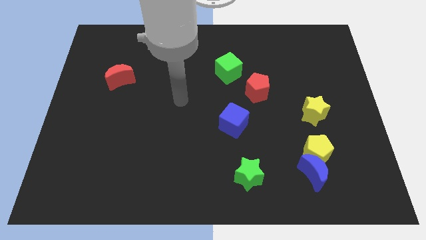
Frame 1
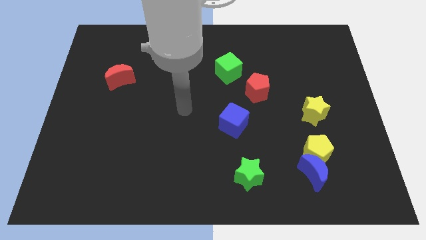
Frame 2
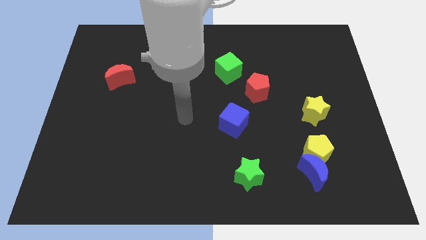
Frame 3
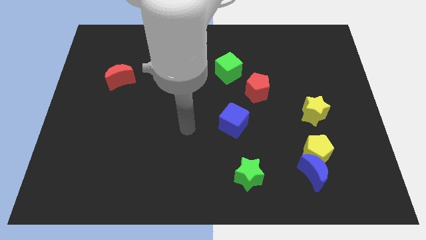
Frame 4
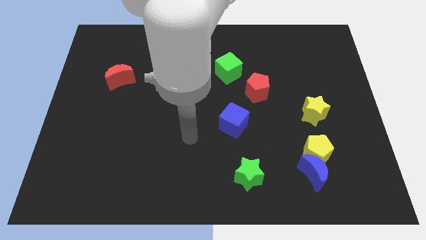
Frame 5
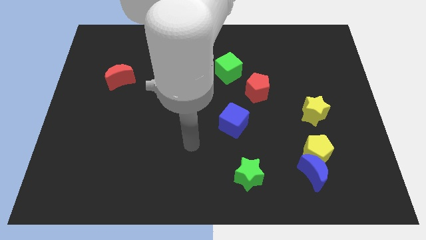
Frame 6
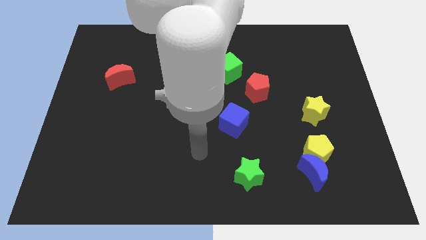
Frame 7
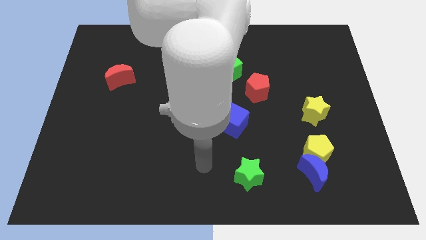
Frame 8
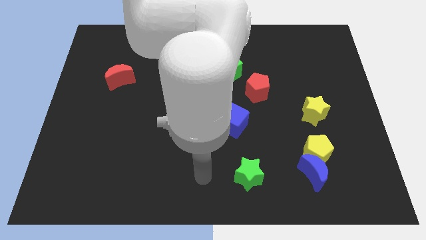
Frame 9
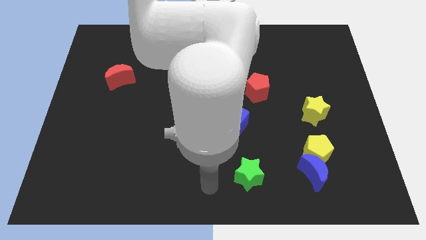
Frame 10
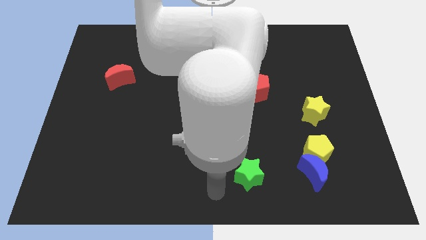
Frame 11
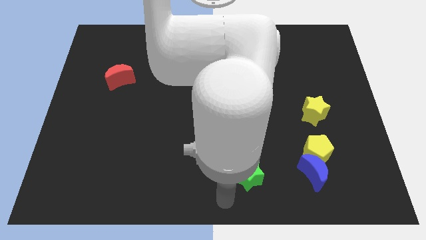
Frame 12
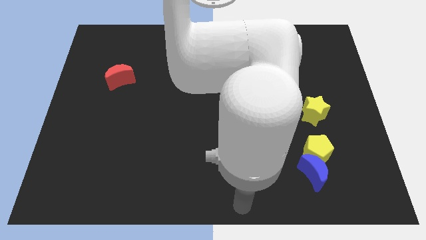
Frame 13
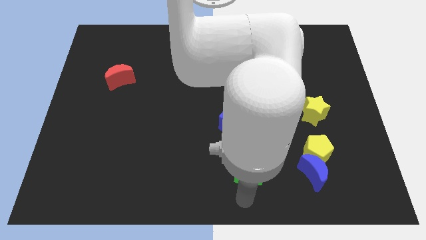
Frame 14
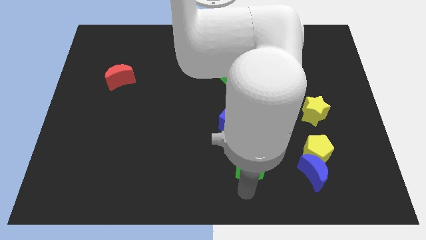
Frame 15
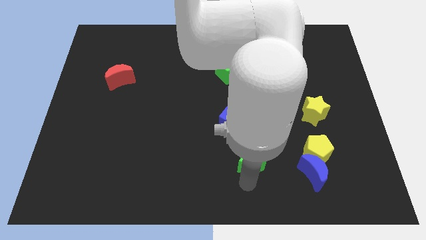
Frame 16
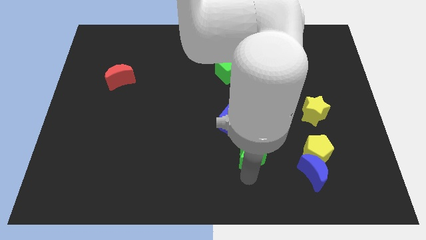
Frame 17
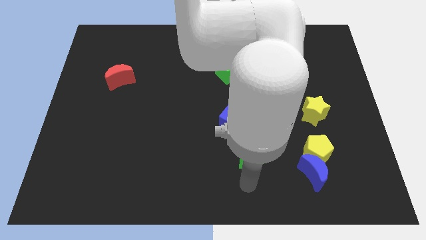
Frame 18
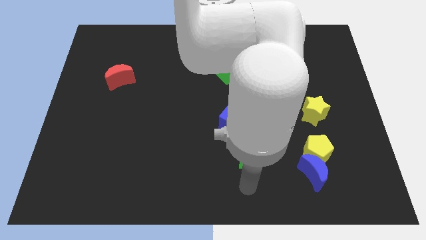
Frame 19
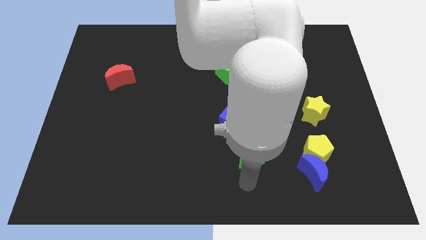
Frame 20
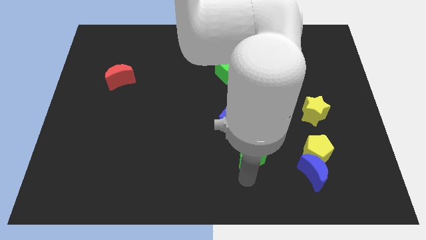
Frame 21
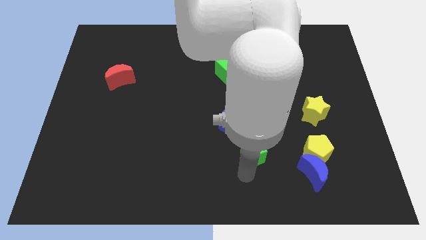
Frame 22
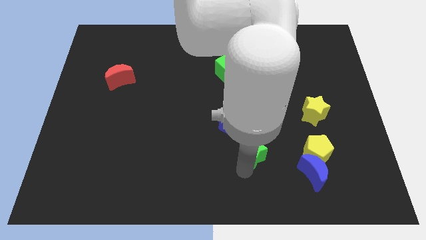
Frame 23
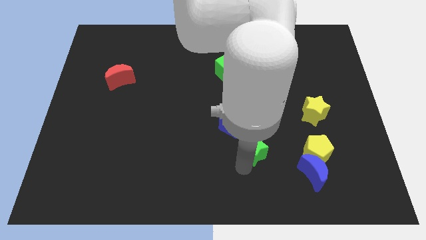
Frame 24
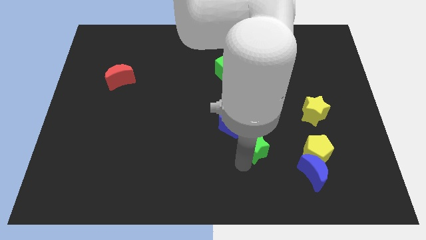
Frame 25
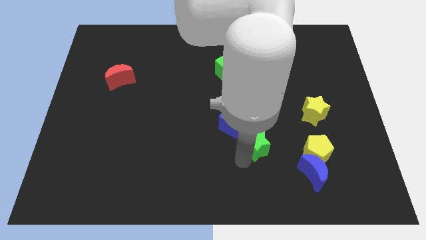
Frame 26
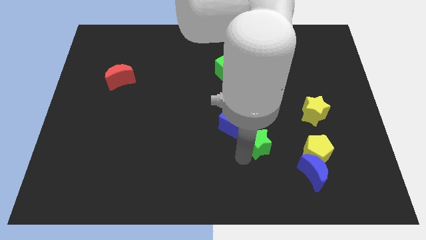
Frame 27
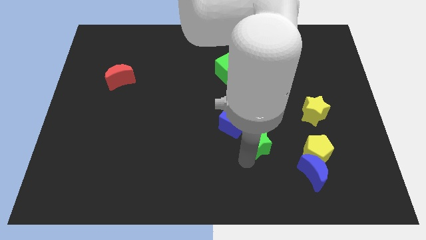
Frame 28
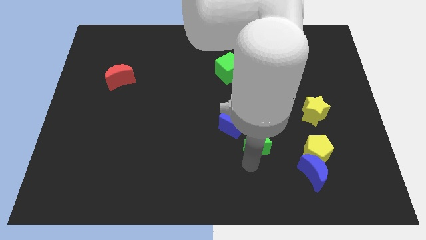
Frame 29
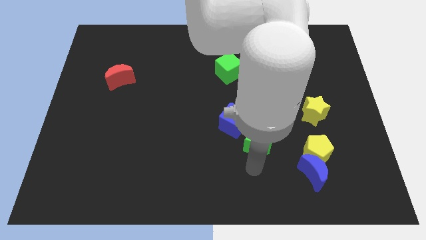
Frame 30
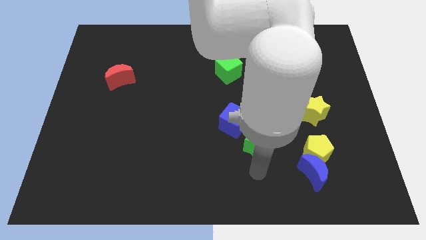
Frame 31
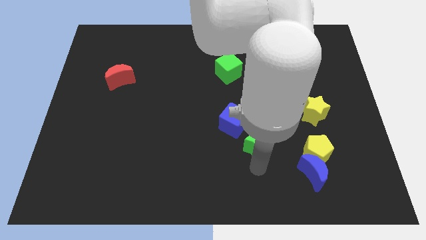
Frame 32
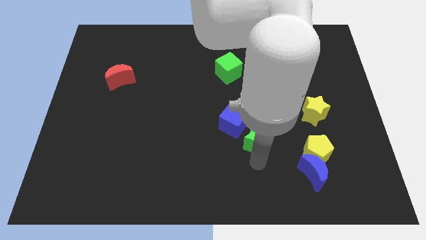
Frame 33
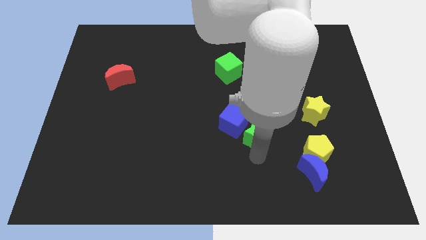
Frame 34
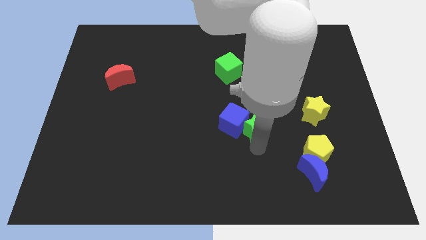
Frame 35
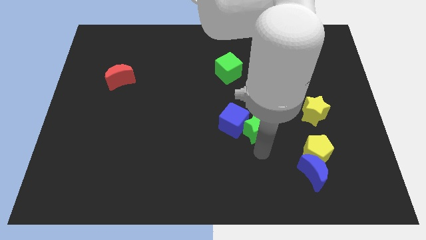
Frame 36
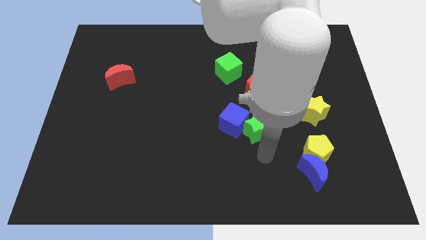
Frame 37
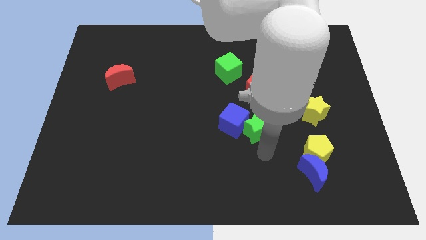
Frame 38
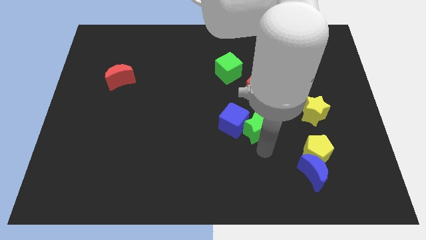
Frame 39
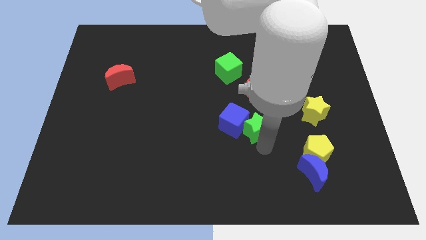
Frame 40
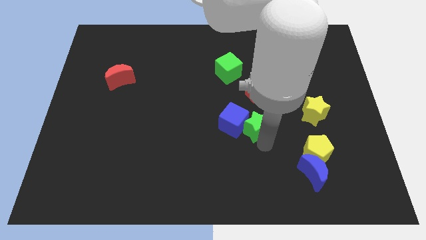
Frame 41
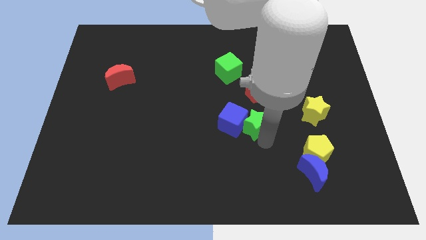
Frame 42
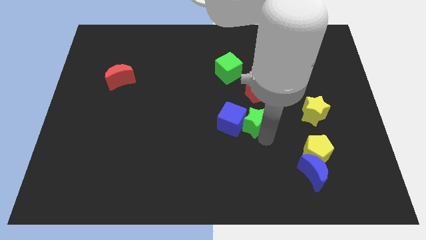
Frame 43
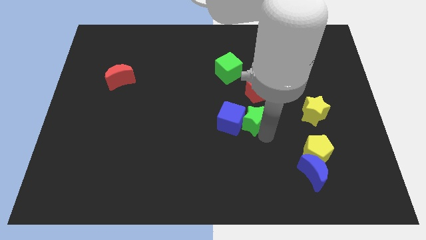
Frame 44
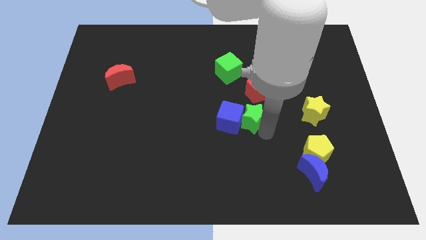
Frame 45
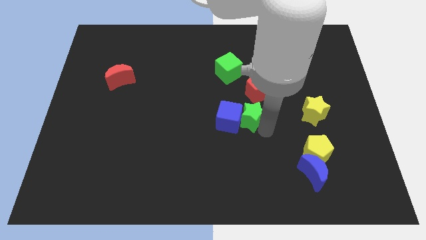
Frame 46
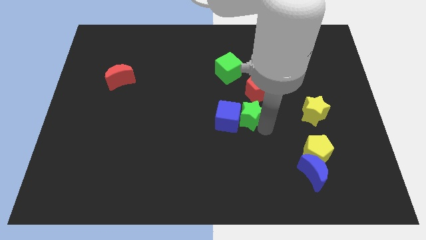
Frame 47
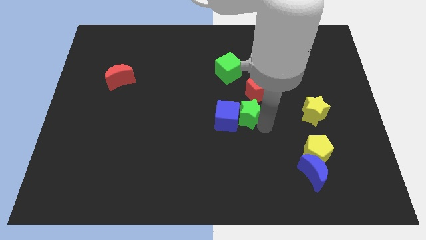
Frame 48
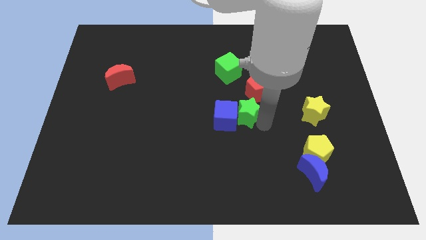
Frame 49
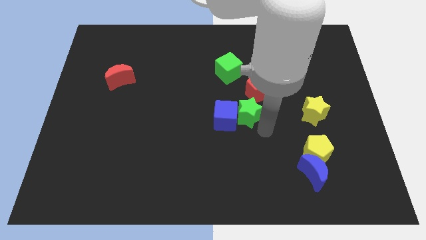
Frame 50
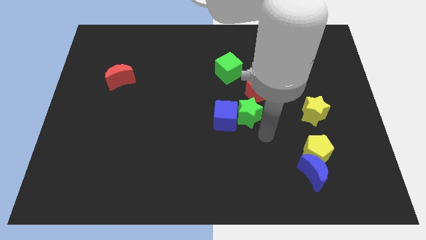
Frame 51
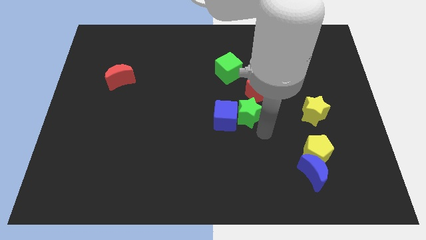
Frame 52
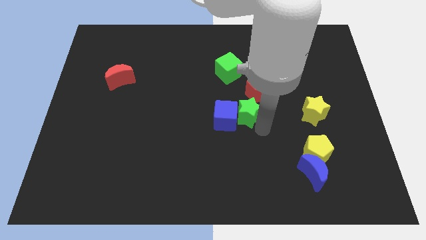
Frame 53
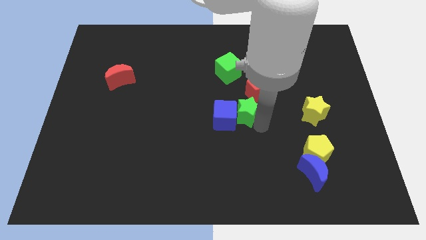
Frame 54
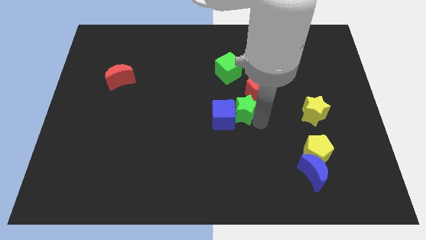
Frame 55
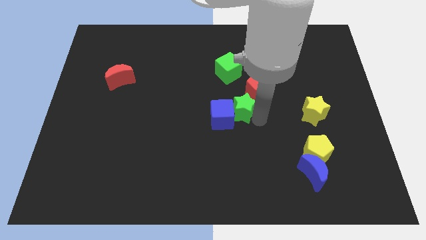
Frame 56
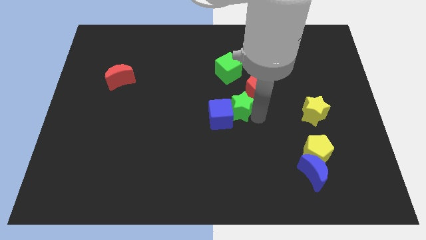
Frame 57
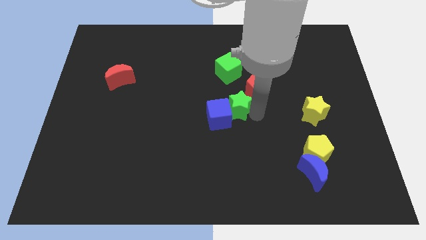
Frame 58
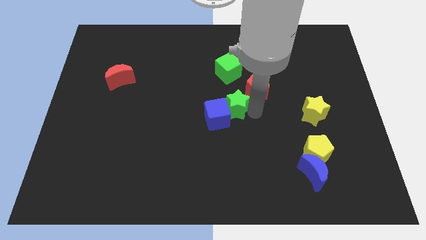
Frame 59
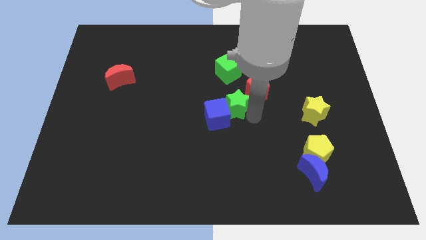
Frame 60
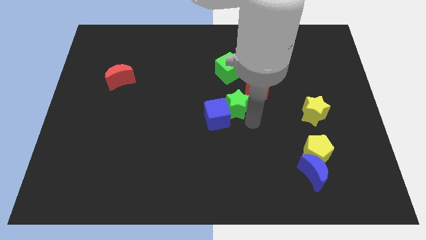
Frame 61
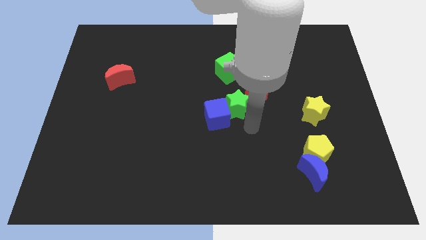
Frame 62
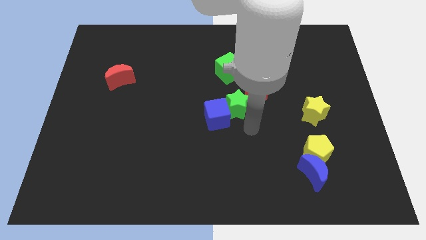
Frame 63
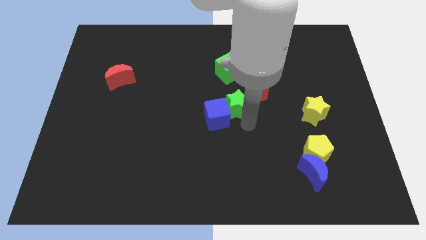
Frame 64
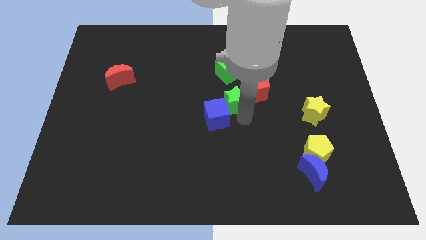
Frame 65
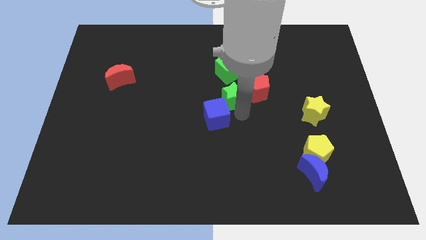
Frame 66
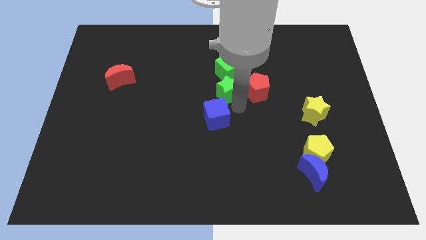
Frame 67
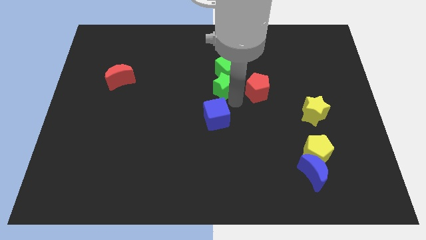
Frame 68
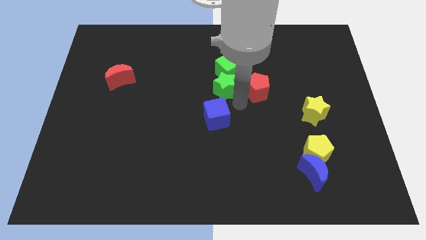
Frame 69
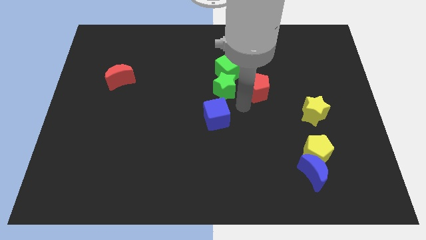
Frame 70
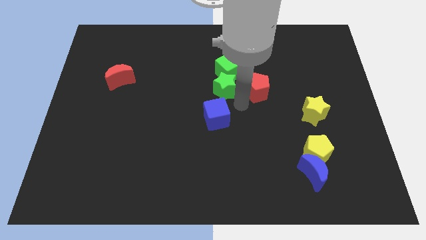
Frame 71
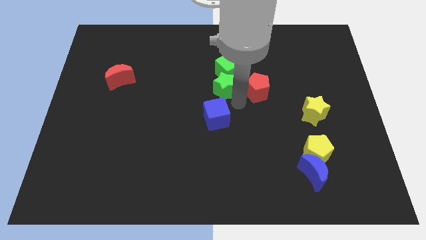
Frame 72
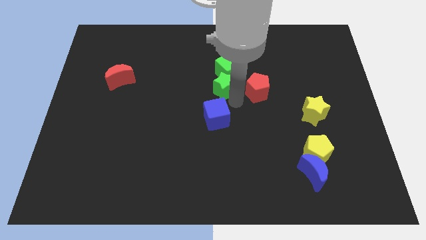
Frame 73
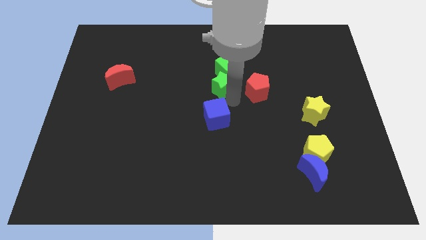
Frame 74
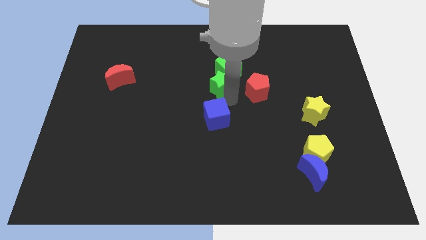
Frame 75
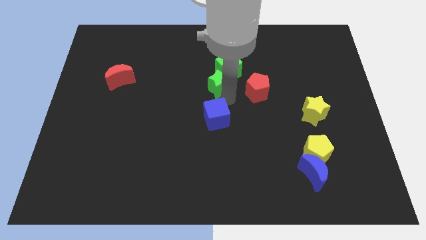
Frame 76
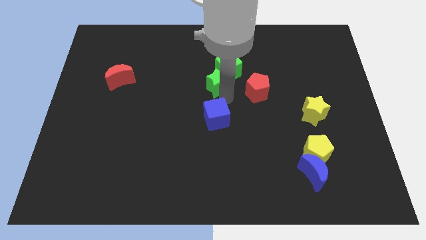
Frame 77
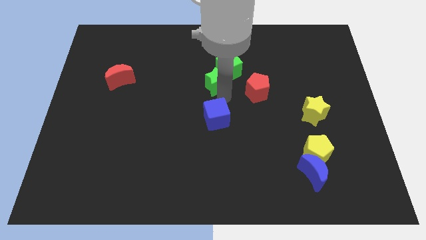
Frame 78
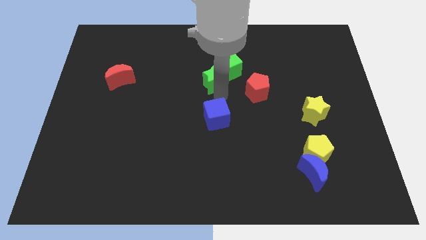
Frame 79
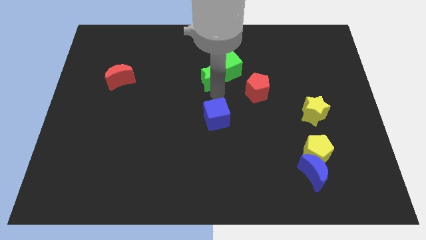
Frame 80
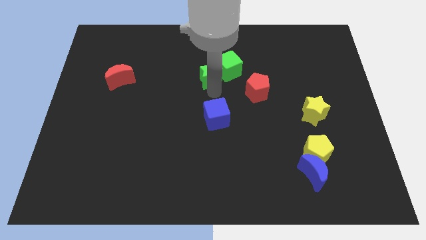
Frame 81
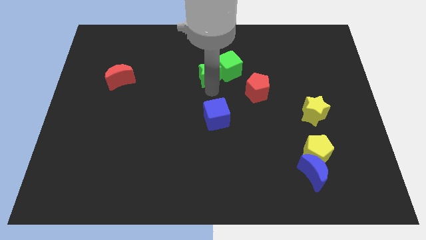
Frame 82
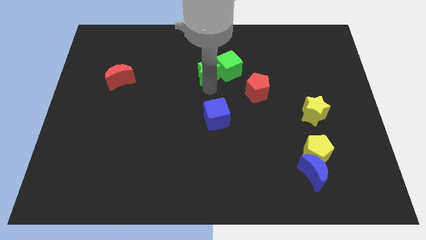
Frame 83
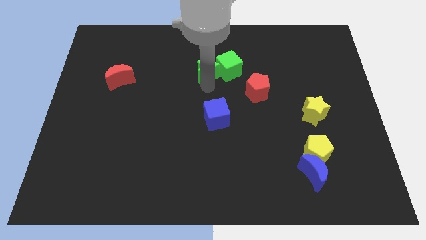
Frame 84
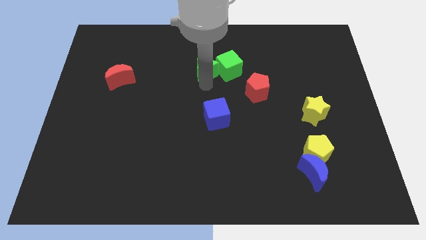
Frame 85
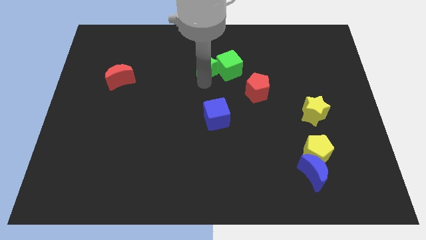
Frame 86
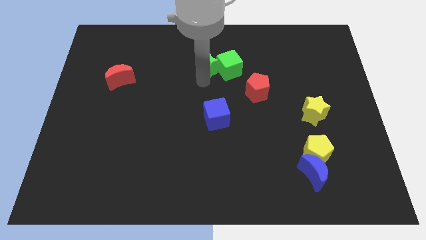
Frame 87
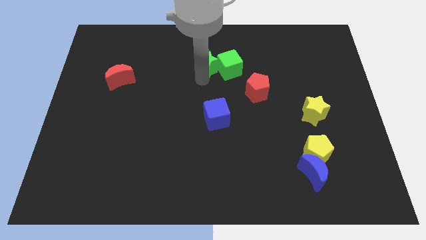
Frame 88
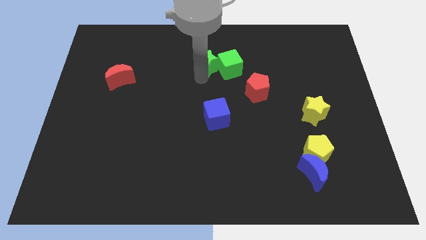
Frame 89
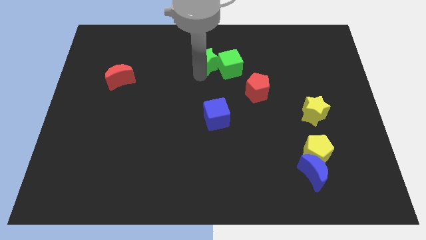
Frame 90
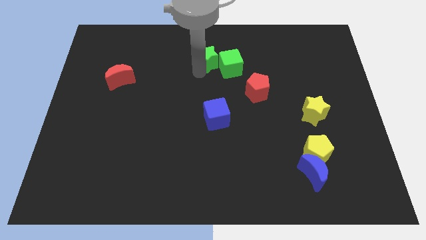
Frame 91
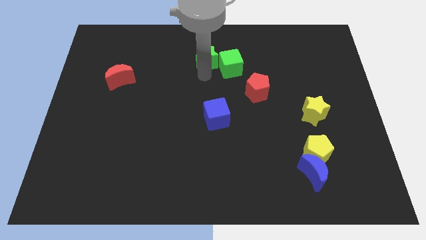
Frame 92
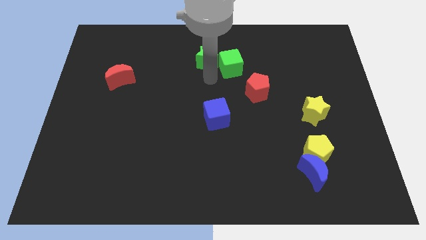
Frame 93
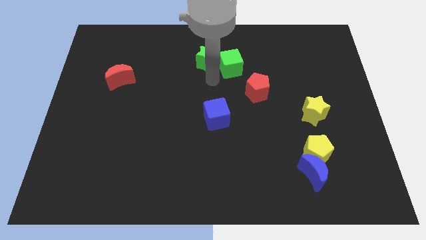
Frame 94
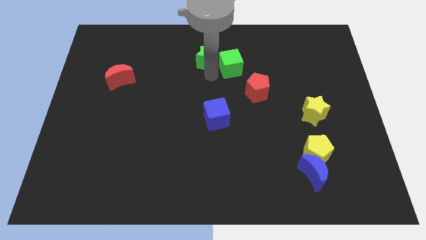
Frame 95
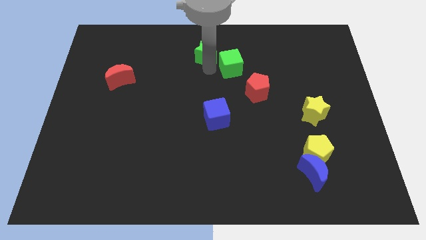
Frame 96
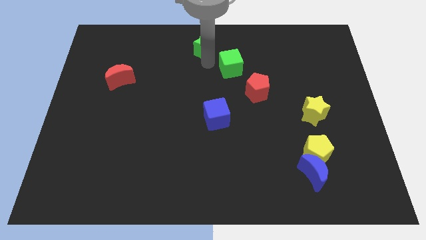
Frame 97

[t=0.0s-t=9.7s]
slide the green star to the top side
